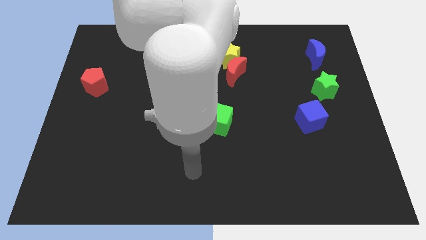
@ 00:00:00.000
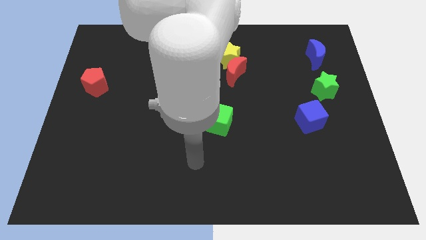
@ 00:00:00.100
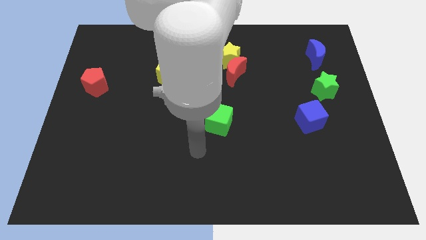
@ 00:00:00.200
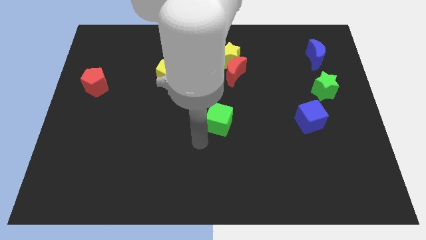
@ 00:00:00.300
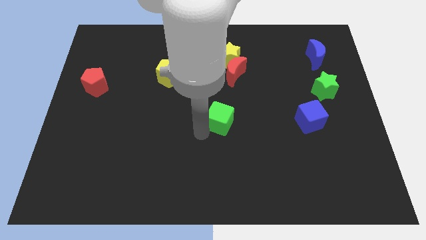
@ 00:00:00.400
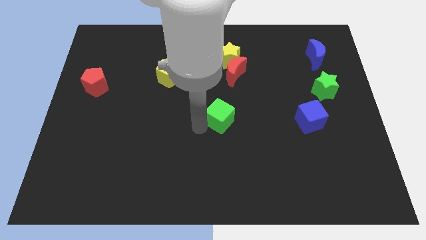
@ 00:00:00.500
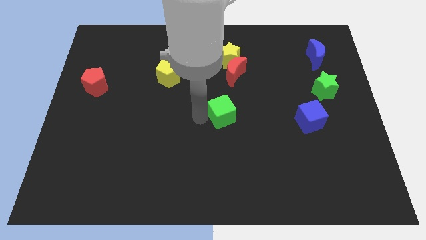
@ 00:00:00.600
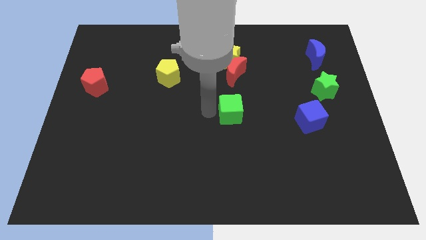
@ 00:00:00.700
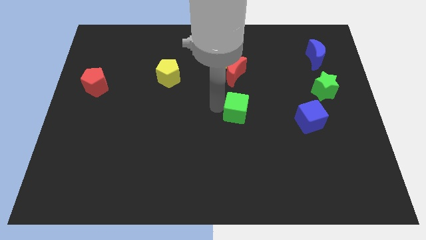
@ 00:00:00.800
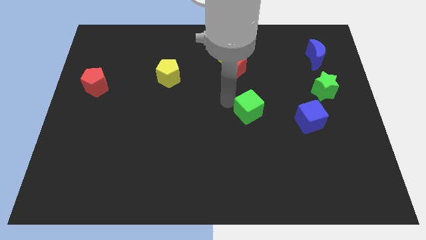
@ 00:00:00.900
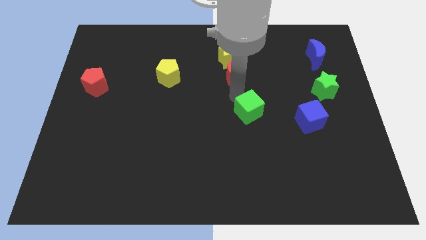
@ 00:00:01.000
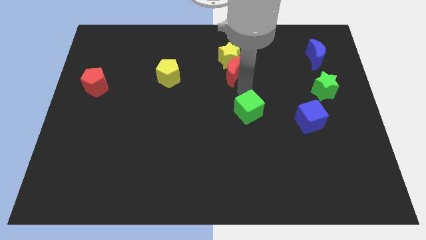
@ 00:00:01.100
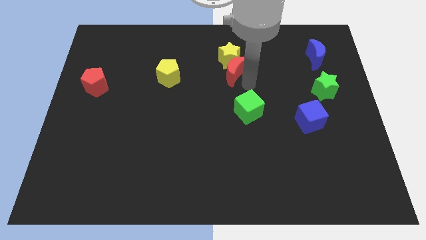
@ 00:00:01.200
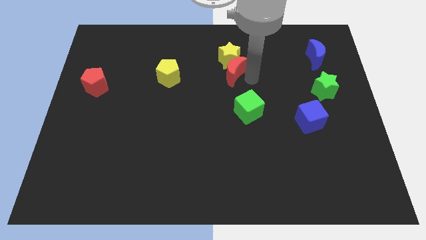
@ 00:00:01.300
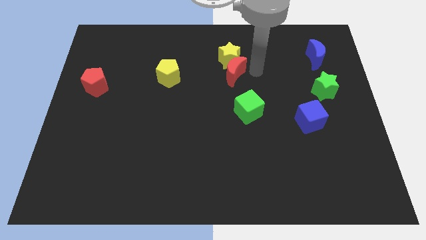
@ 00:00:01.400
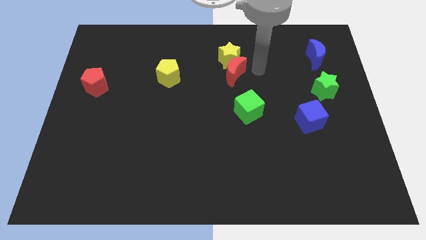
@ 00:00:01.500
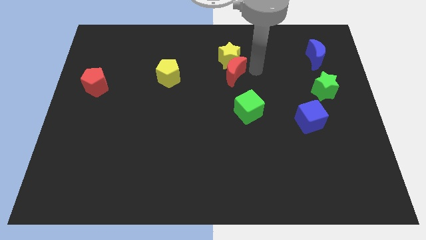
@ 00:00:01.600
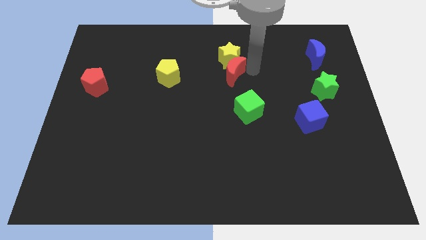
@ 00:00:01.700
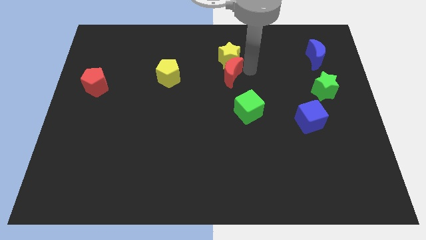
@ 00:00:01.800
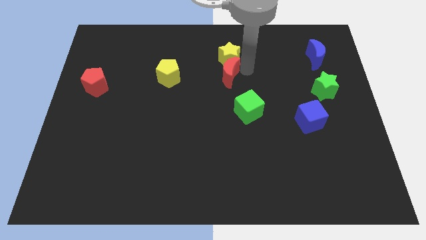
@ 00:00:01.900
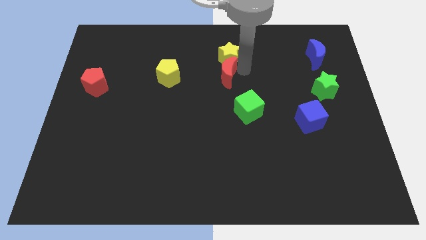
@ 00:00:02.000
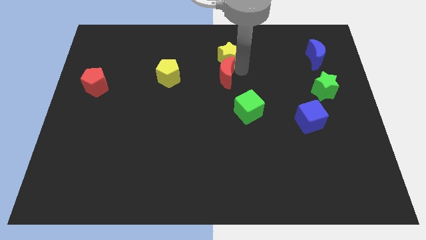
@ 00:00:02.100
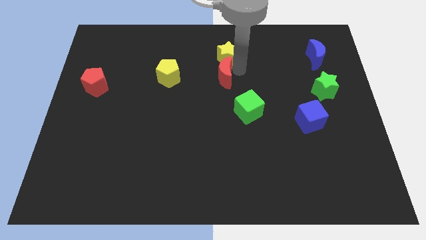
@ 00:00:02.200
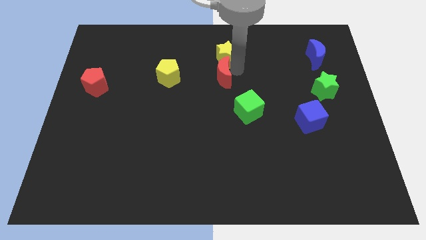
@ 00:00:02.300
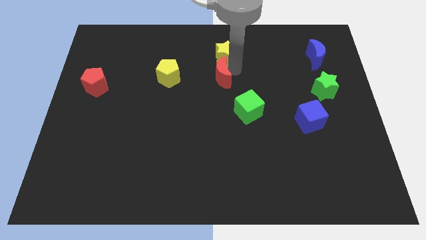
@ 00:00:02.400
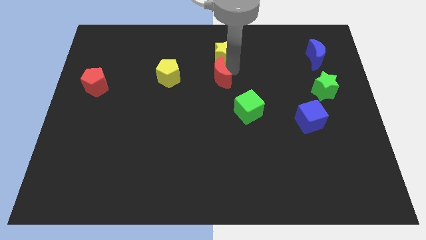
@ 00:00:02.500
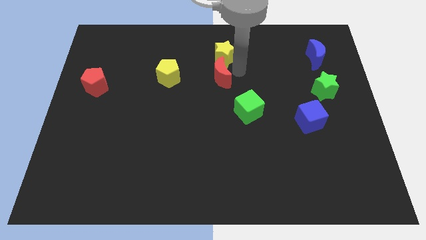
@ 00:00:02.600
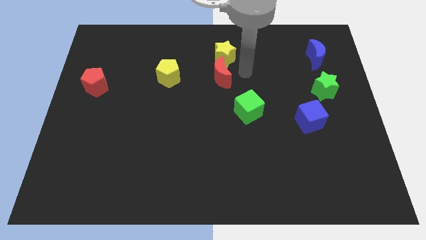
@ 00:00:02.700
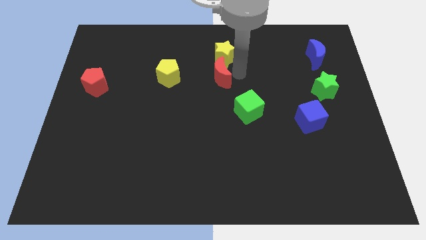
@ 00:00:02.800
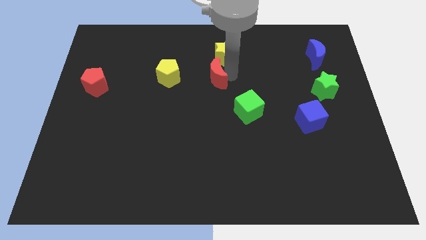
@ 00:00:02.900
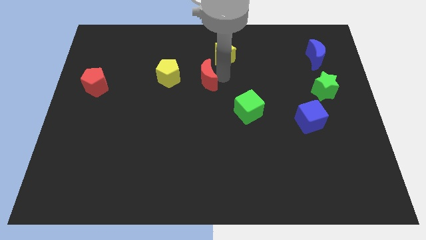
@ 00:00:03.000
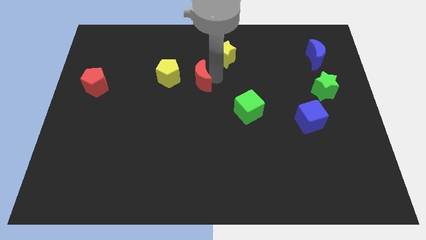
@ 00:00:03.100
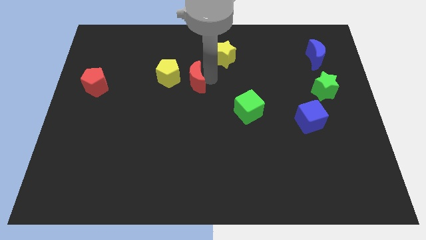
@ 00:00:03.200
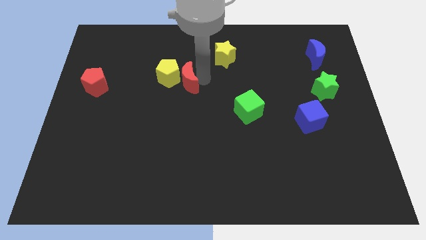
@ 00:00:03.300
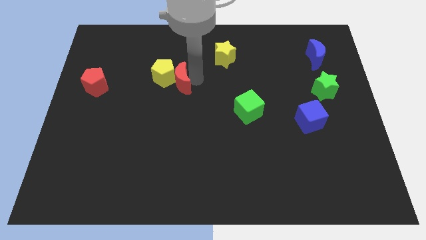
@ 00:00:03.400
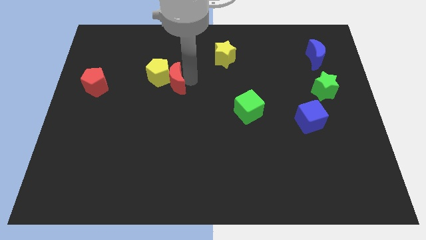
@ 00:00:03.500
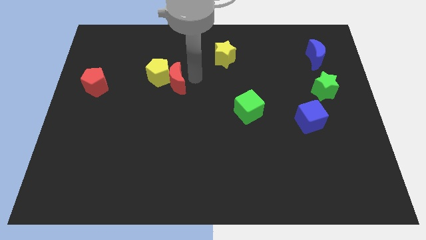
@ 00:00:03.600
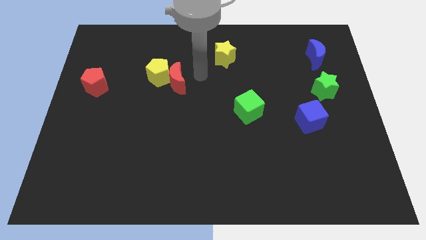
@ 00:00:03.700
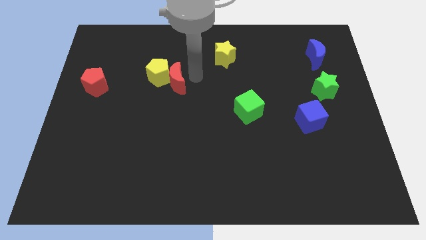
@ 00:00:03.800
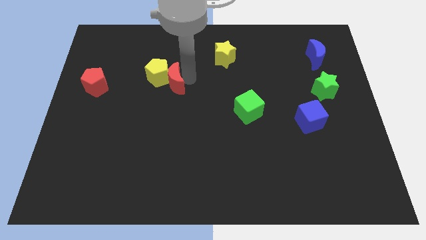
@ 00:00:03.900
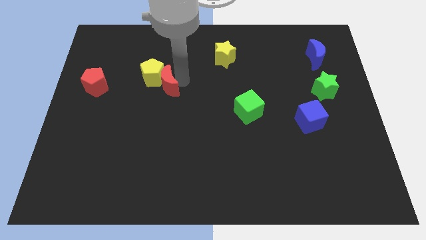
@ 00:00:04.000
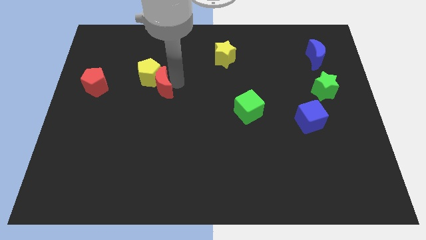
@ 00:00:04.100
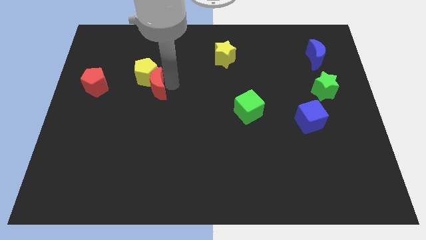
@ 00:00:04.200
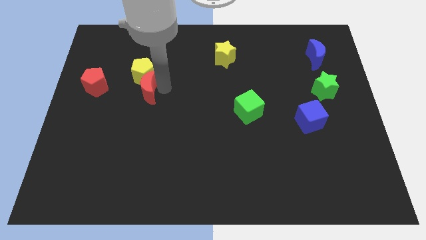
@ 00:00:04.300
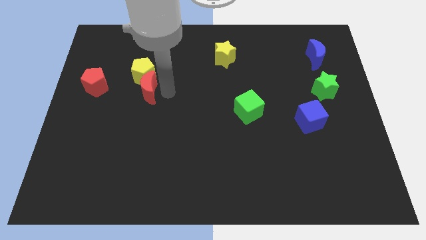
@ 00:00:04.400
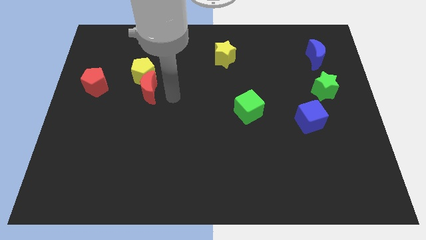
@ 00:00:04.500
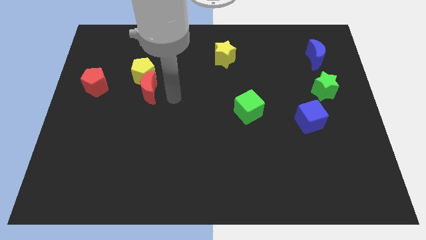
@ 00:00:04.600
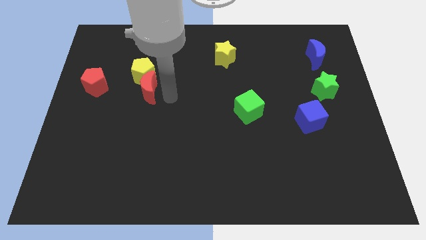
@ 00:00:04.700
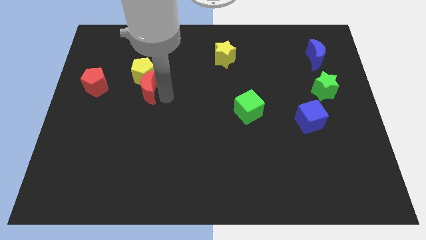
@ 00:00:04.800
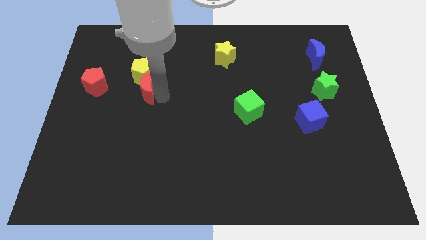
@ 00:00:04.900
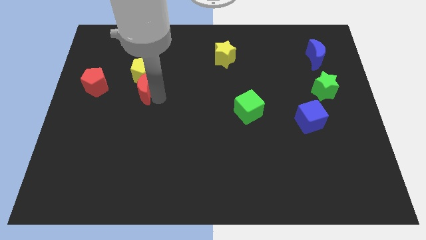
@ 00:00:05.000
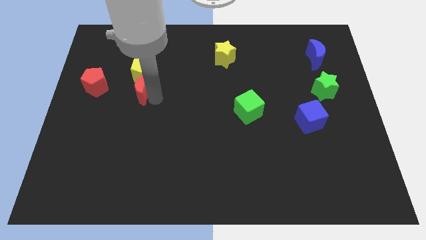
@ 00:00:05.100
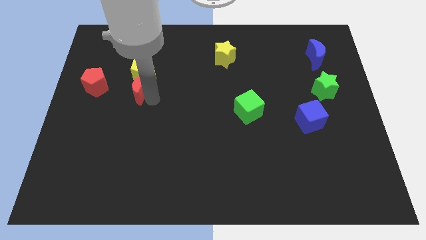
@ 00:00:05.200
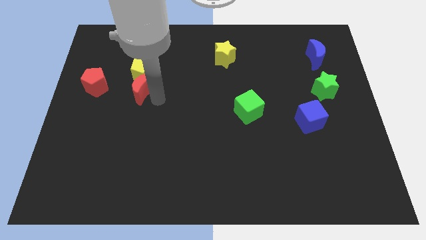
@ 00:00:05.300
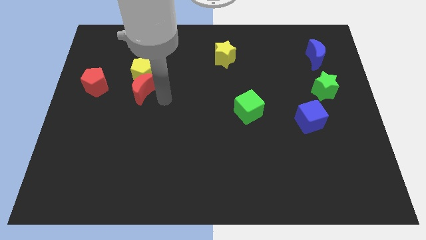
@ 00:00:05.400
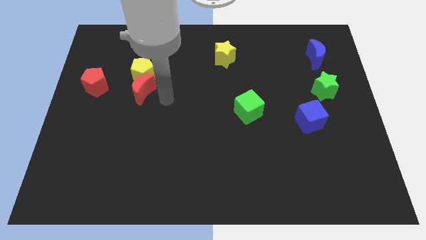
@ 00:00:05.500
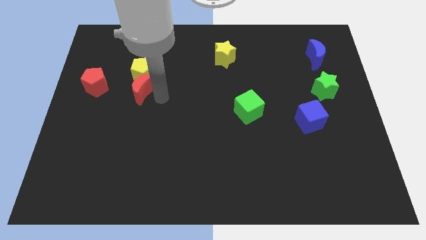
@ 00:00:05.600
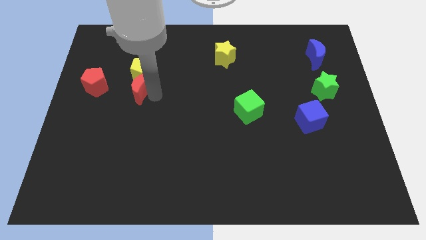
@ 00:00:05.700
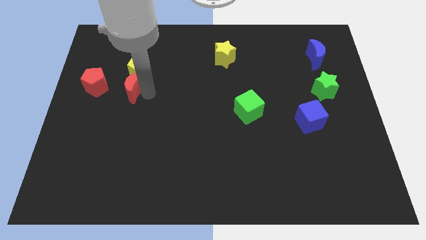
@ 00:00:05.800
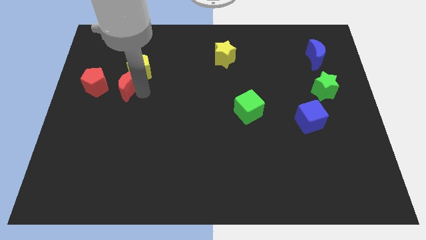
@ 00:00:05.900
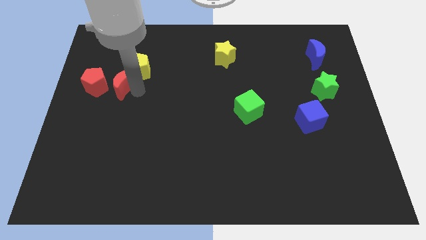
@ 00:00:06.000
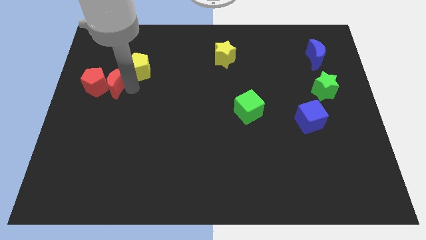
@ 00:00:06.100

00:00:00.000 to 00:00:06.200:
slide the red moon towards the red pentagon

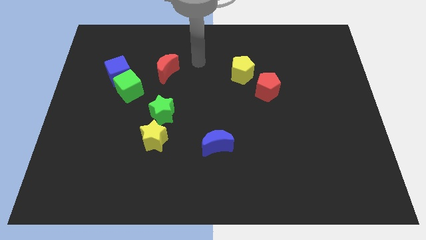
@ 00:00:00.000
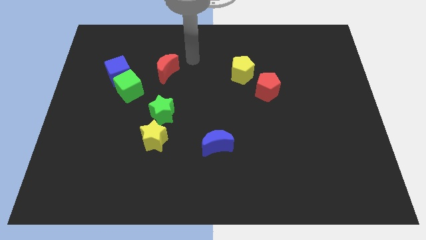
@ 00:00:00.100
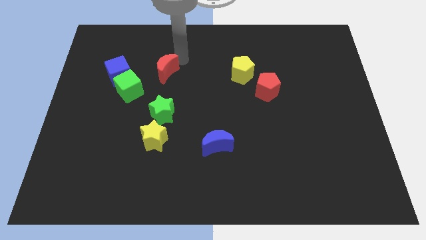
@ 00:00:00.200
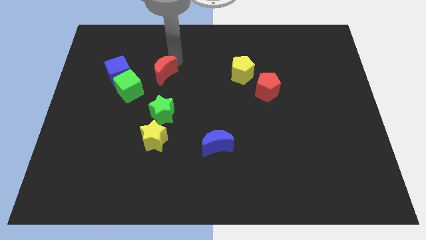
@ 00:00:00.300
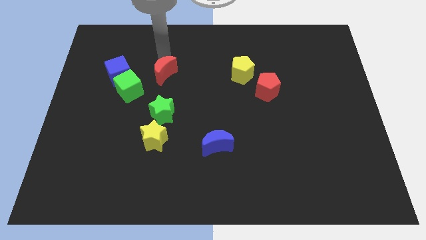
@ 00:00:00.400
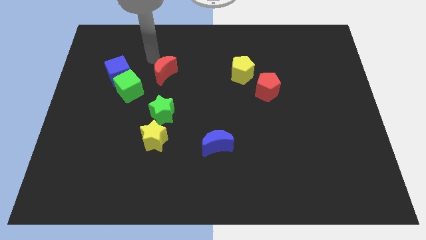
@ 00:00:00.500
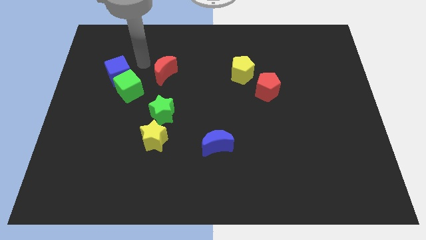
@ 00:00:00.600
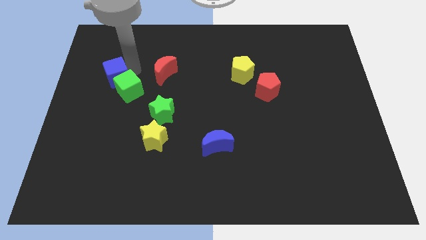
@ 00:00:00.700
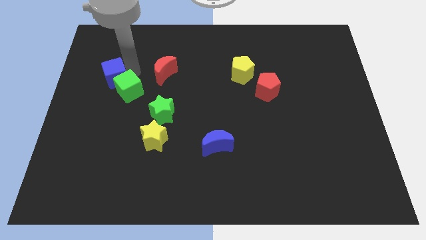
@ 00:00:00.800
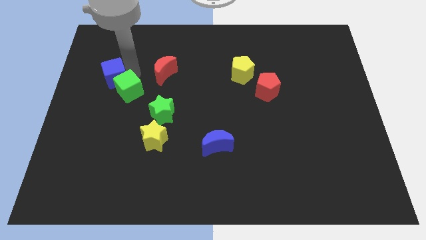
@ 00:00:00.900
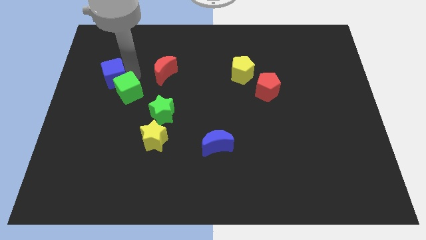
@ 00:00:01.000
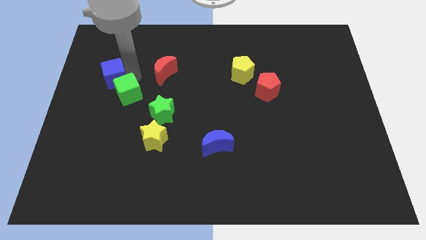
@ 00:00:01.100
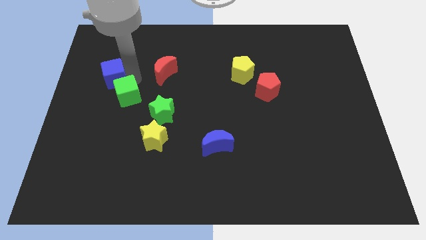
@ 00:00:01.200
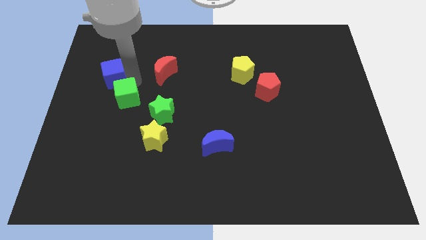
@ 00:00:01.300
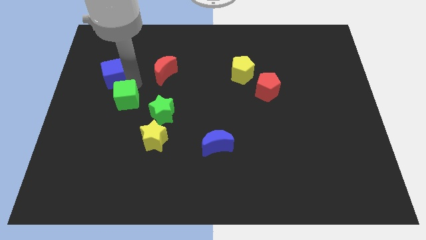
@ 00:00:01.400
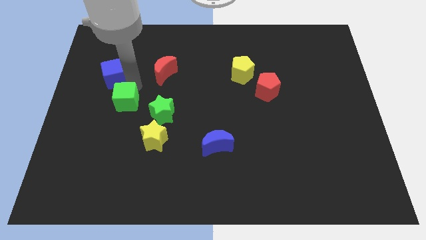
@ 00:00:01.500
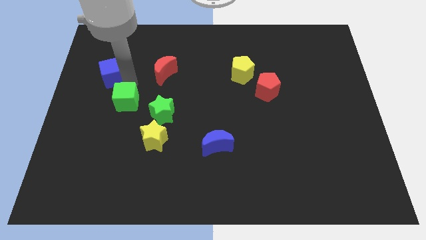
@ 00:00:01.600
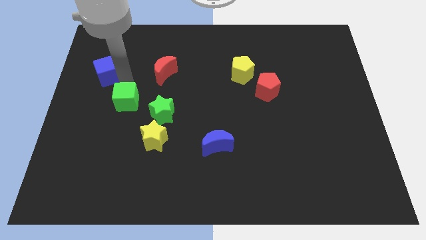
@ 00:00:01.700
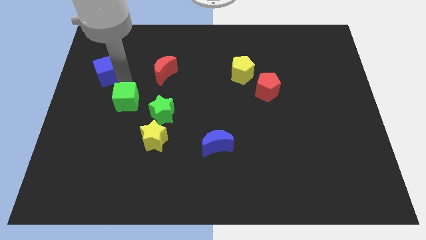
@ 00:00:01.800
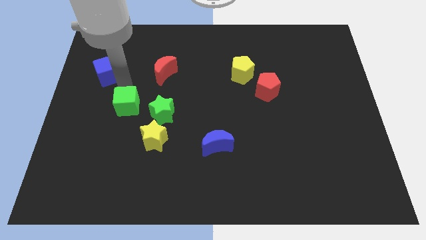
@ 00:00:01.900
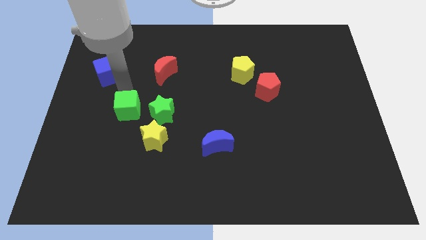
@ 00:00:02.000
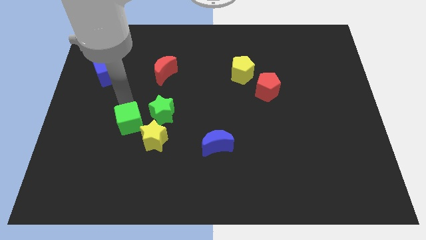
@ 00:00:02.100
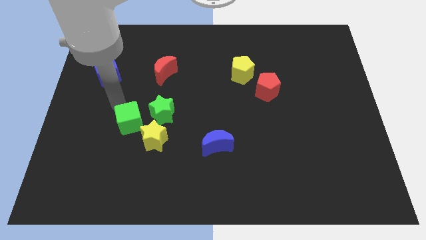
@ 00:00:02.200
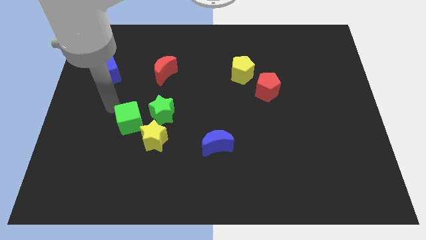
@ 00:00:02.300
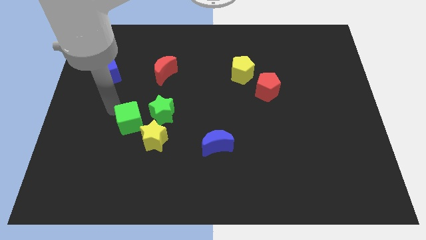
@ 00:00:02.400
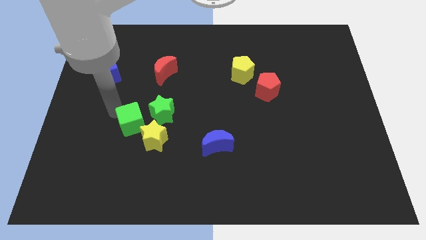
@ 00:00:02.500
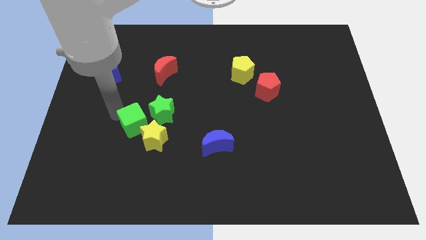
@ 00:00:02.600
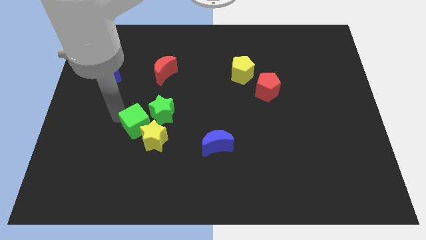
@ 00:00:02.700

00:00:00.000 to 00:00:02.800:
move the green cube towards the yellow star
